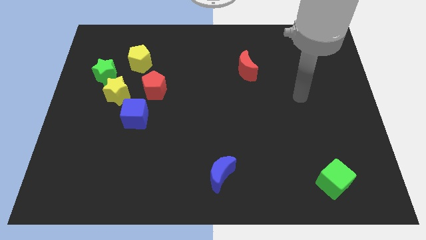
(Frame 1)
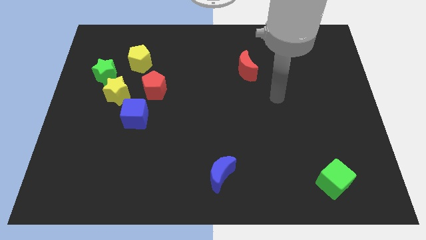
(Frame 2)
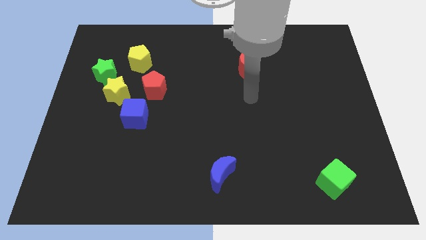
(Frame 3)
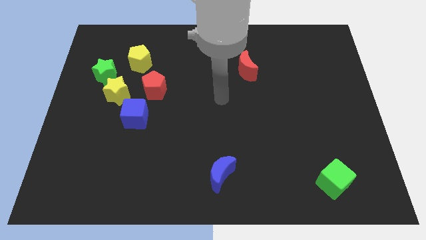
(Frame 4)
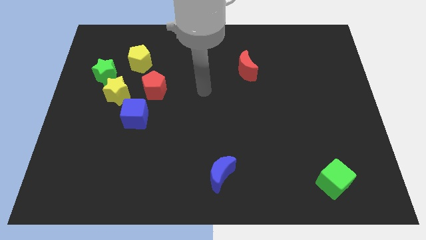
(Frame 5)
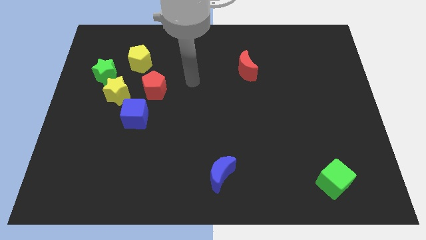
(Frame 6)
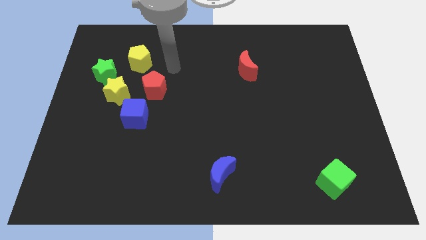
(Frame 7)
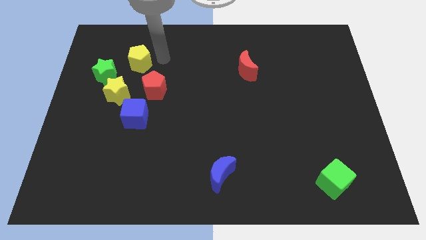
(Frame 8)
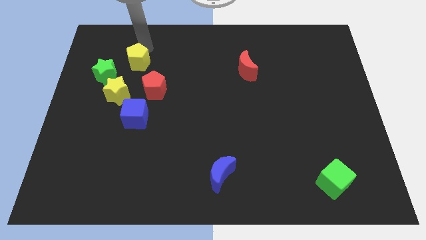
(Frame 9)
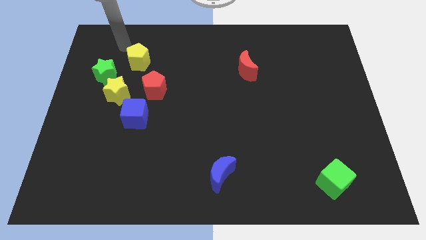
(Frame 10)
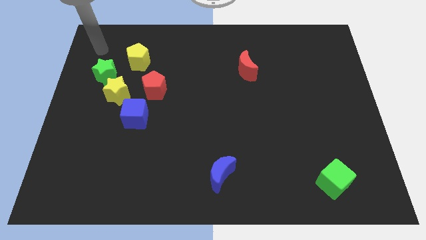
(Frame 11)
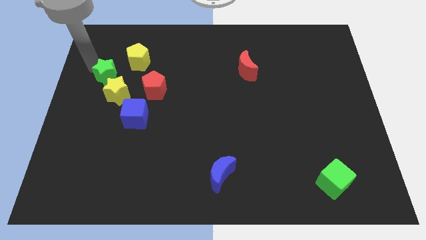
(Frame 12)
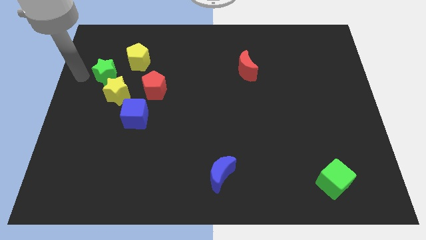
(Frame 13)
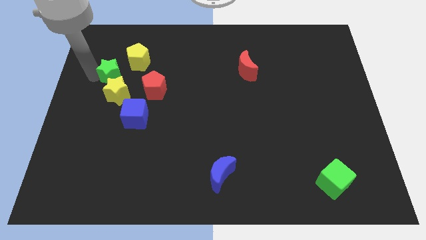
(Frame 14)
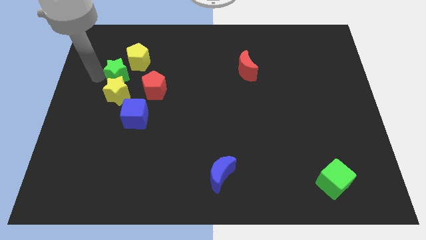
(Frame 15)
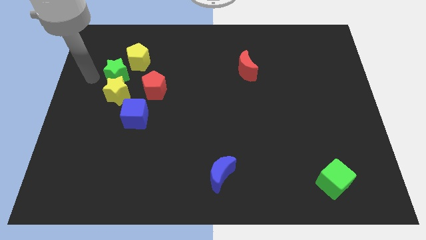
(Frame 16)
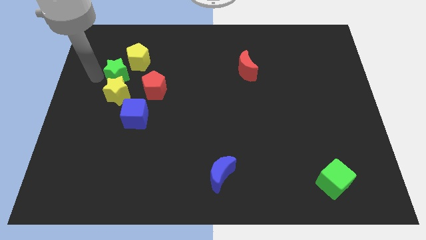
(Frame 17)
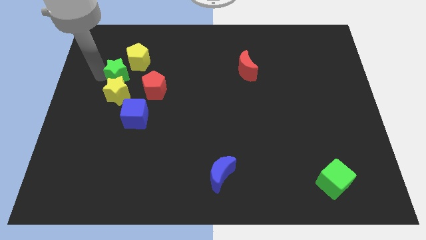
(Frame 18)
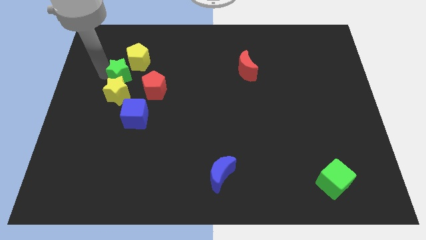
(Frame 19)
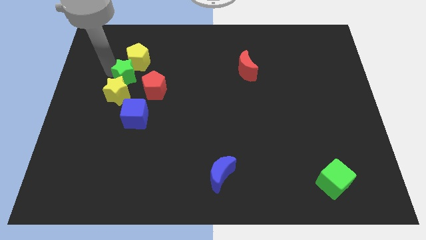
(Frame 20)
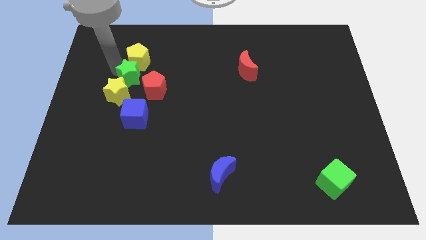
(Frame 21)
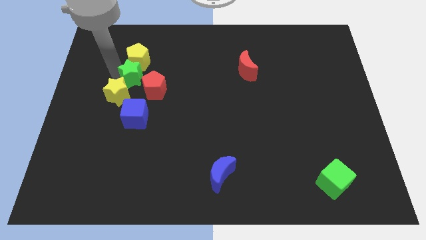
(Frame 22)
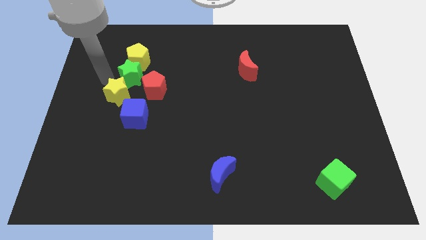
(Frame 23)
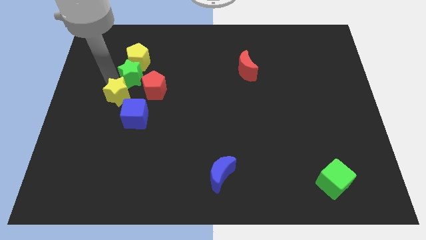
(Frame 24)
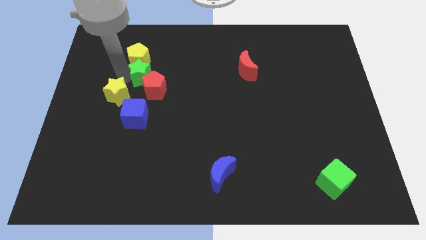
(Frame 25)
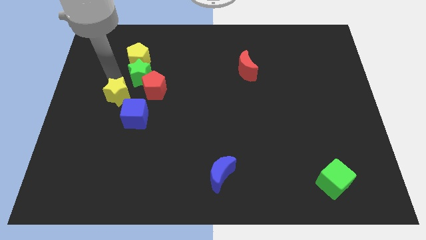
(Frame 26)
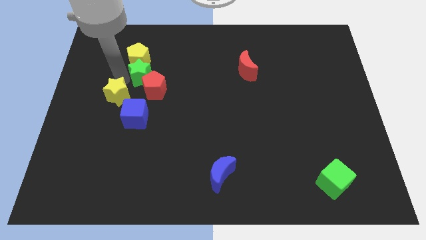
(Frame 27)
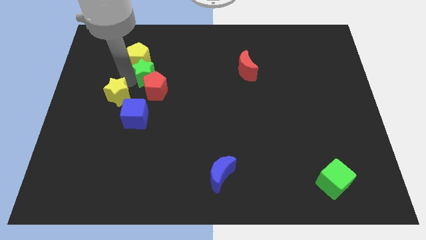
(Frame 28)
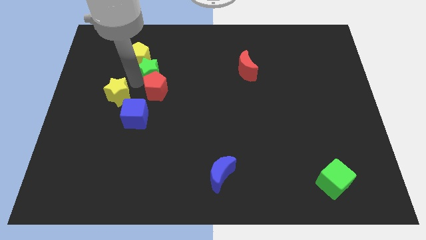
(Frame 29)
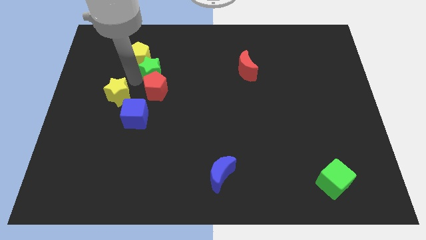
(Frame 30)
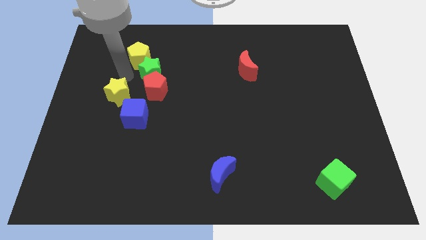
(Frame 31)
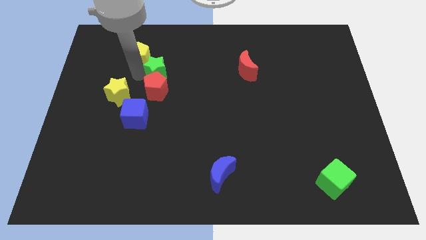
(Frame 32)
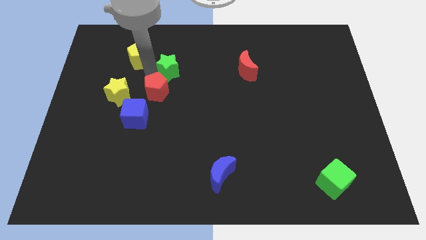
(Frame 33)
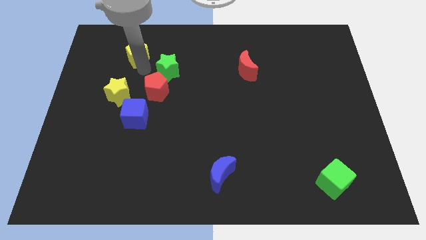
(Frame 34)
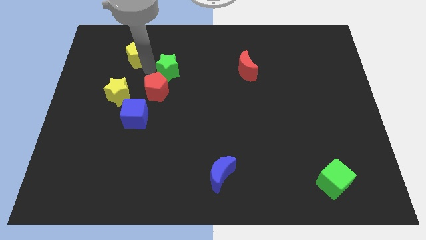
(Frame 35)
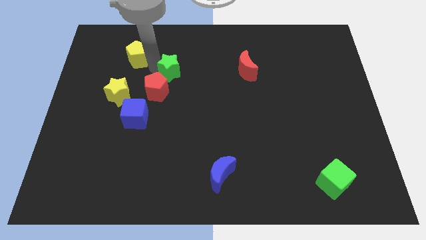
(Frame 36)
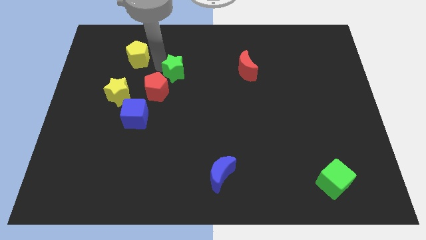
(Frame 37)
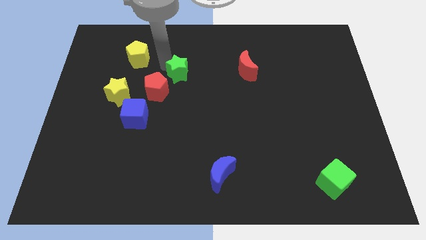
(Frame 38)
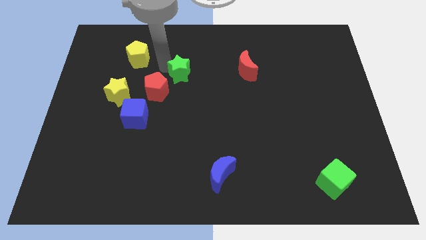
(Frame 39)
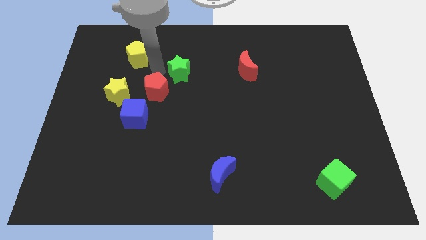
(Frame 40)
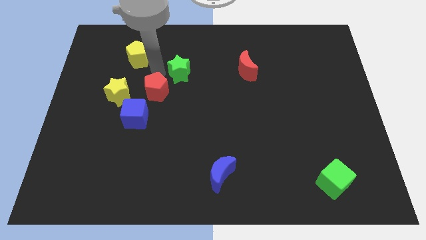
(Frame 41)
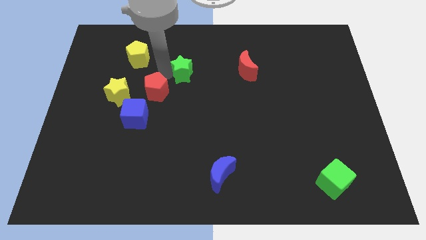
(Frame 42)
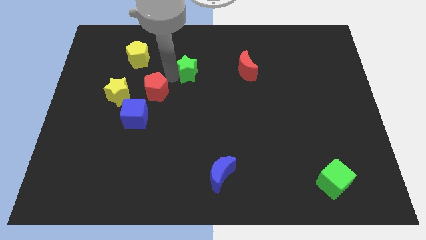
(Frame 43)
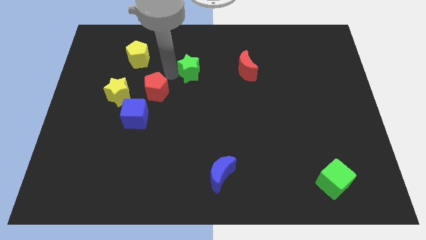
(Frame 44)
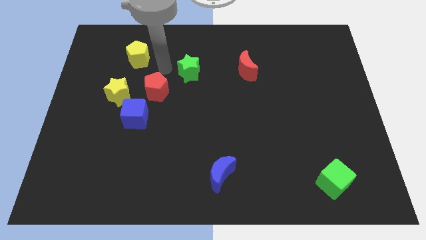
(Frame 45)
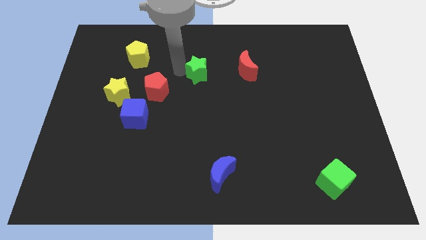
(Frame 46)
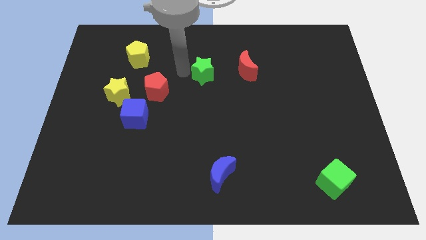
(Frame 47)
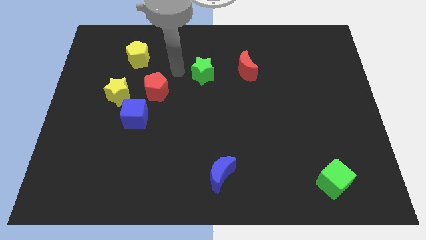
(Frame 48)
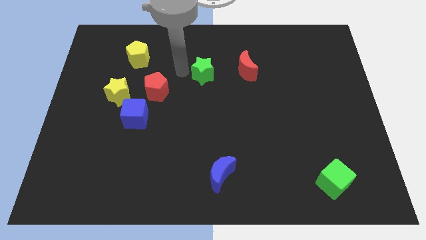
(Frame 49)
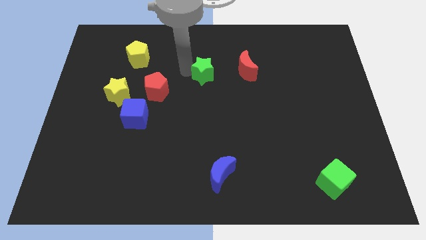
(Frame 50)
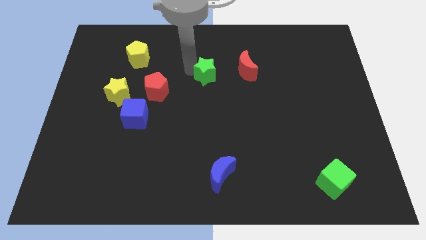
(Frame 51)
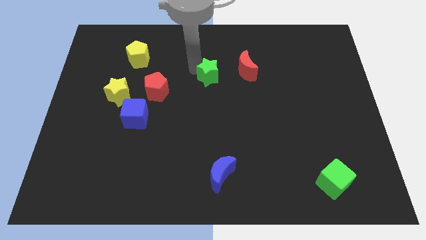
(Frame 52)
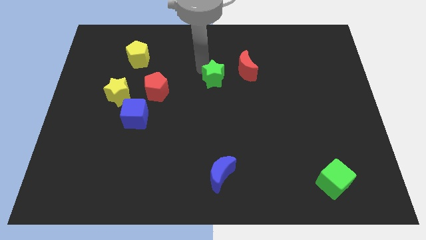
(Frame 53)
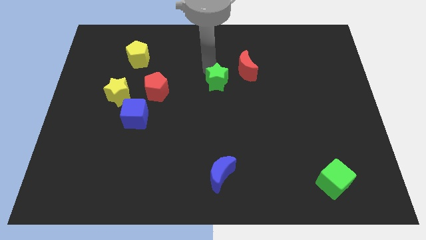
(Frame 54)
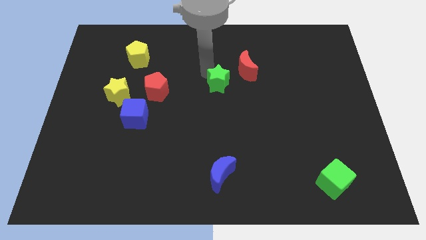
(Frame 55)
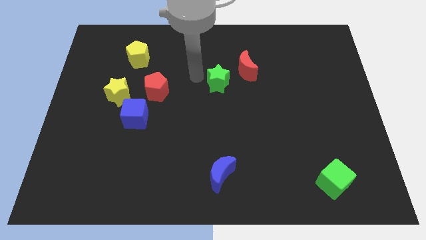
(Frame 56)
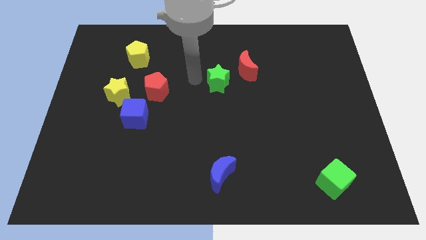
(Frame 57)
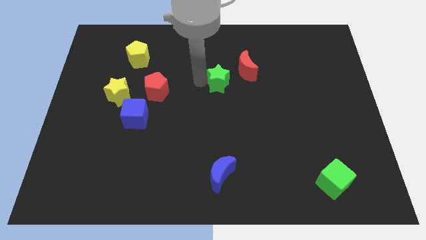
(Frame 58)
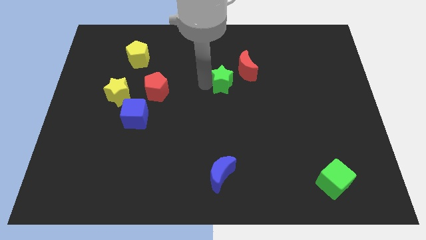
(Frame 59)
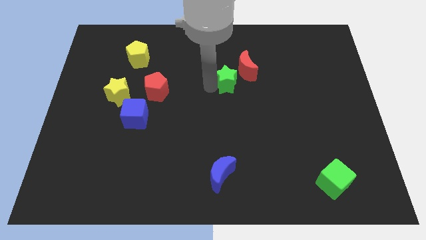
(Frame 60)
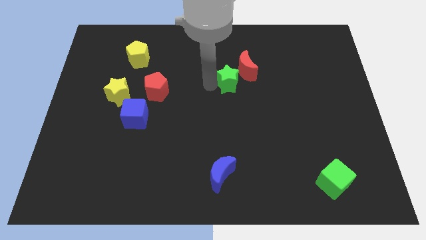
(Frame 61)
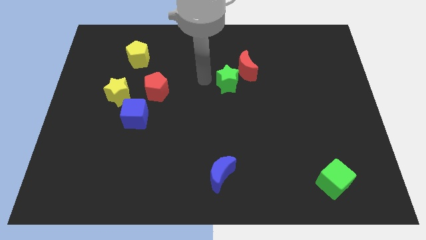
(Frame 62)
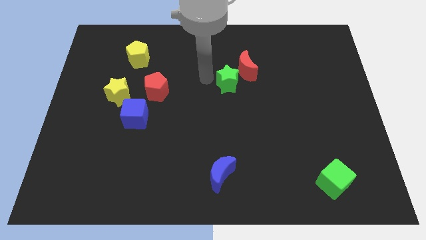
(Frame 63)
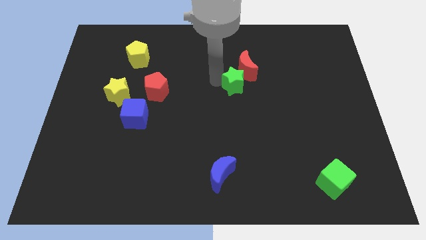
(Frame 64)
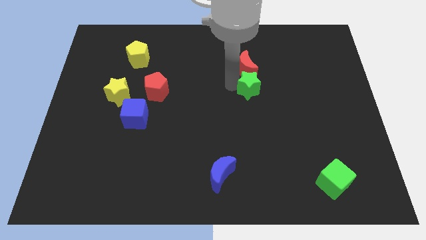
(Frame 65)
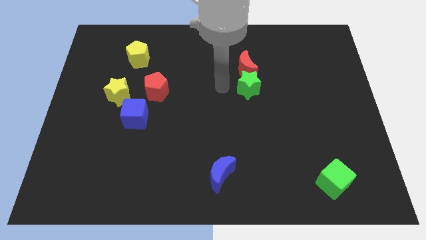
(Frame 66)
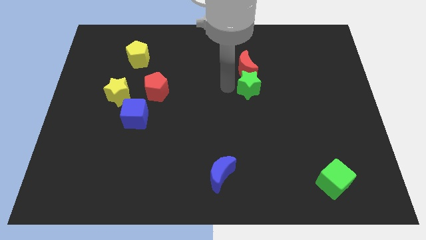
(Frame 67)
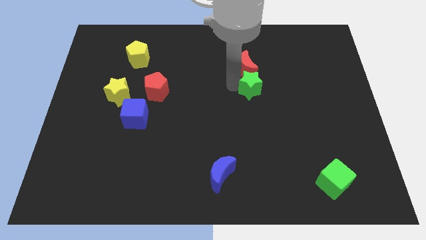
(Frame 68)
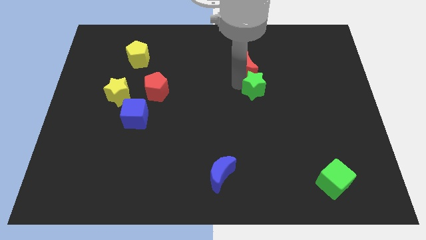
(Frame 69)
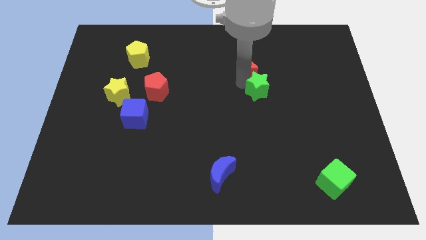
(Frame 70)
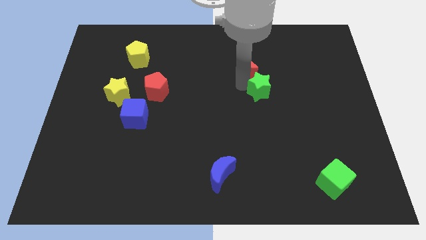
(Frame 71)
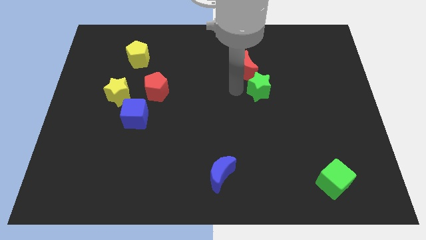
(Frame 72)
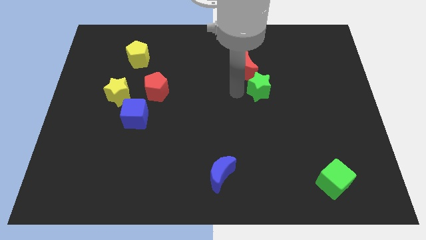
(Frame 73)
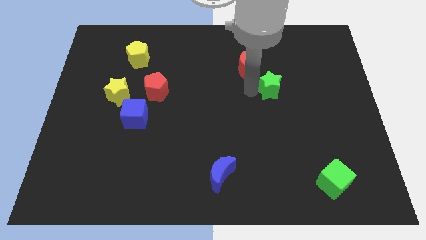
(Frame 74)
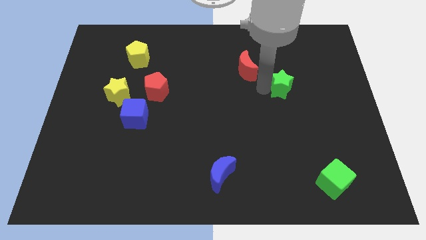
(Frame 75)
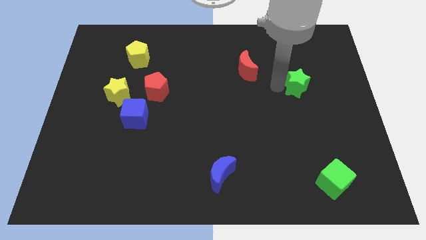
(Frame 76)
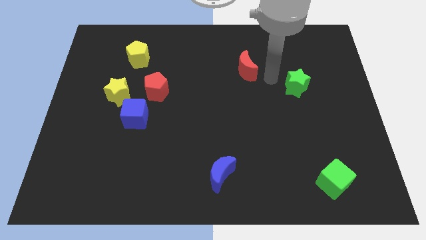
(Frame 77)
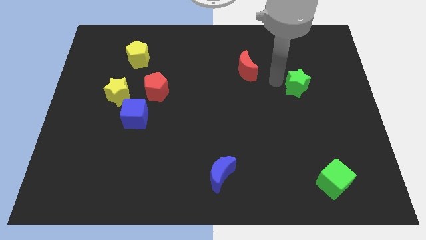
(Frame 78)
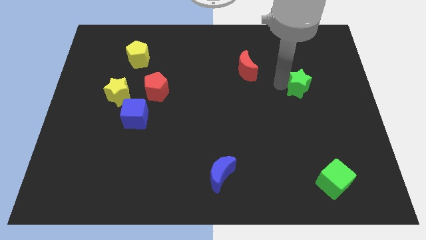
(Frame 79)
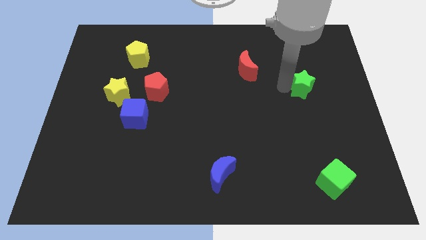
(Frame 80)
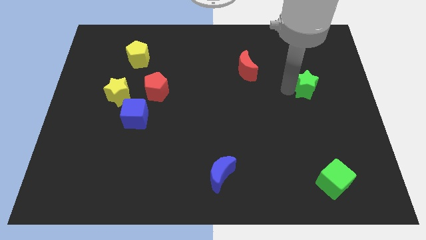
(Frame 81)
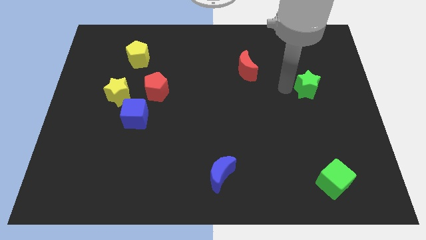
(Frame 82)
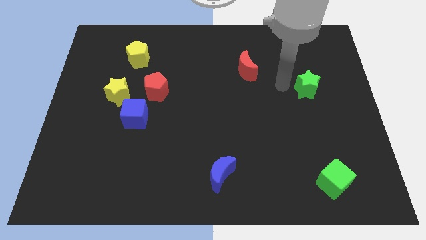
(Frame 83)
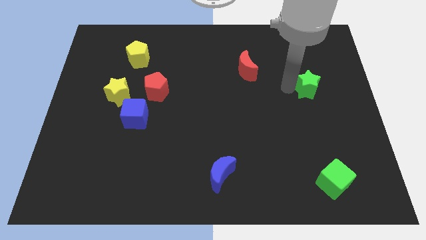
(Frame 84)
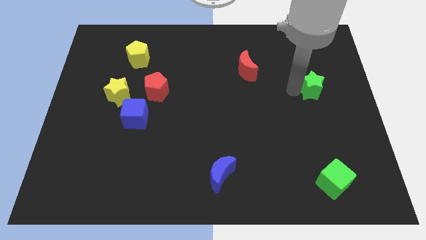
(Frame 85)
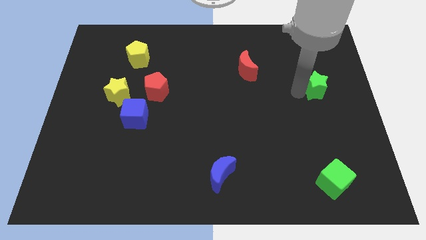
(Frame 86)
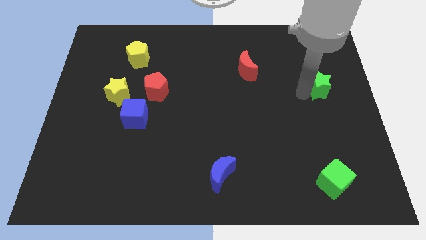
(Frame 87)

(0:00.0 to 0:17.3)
move the green star to the right side of the board
